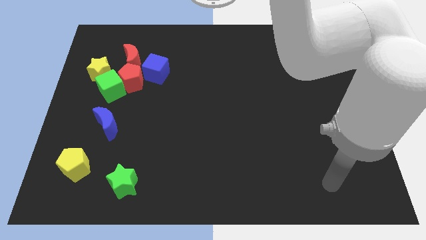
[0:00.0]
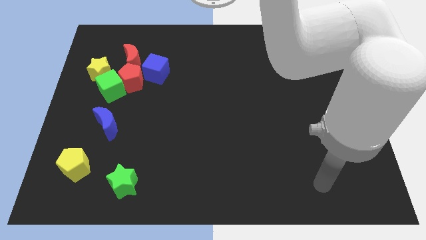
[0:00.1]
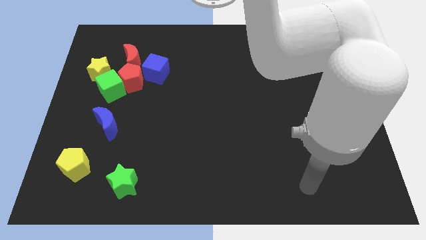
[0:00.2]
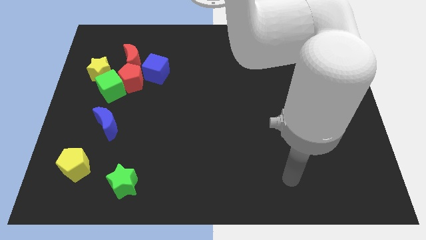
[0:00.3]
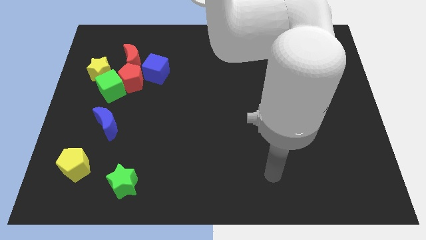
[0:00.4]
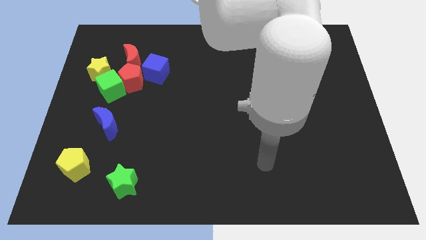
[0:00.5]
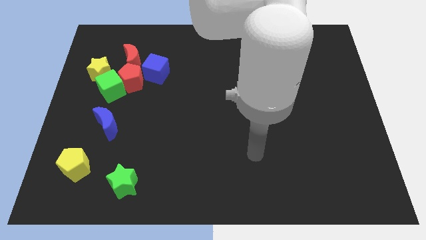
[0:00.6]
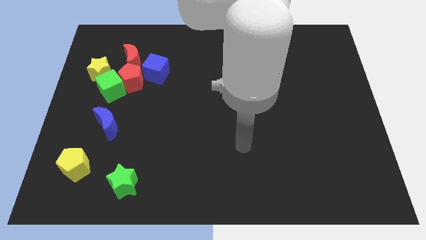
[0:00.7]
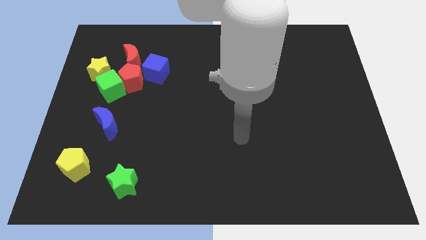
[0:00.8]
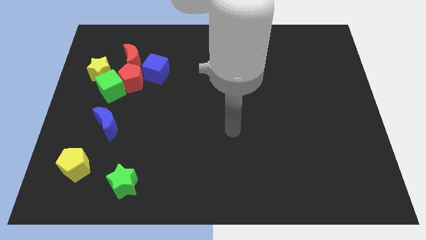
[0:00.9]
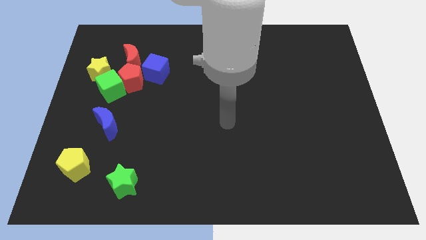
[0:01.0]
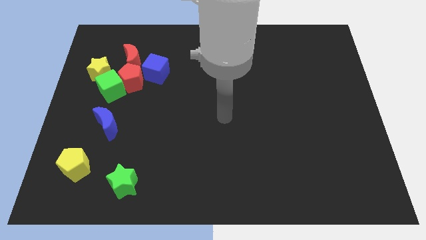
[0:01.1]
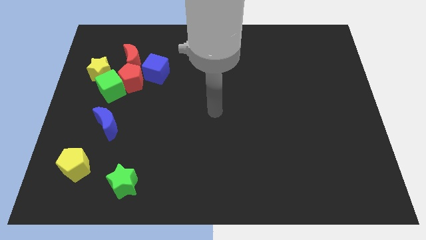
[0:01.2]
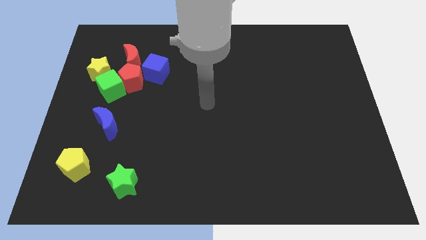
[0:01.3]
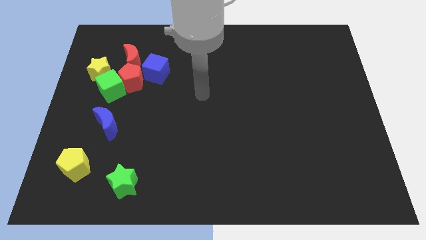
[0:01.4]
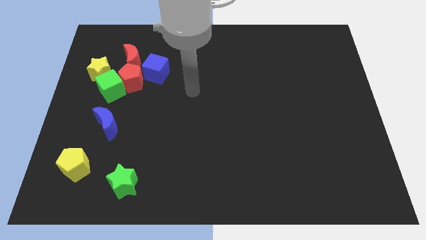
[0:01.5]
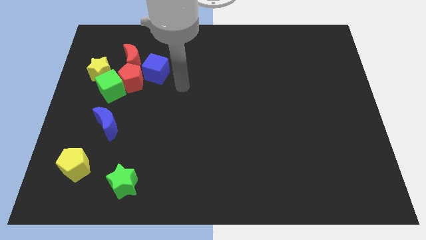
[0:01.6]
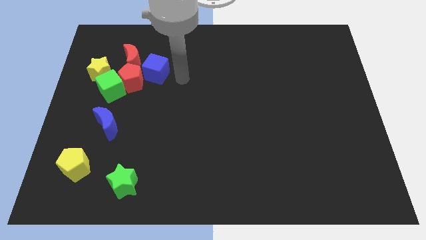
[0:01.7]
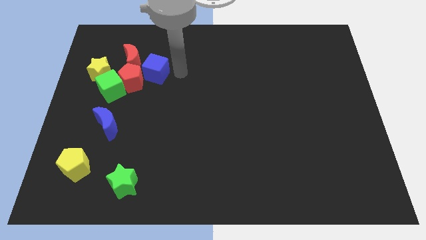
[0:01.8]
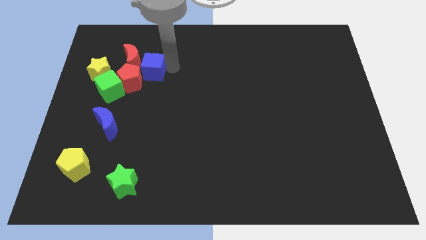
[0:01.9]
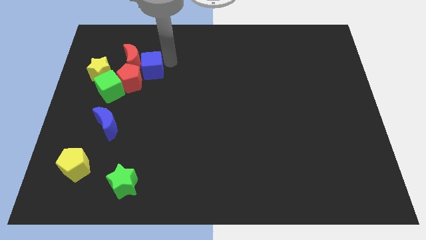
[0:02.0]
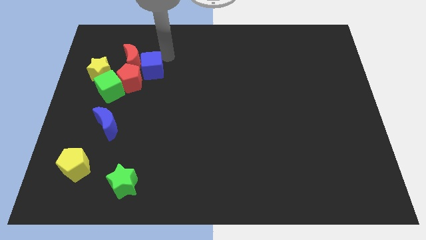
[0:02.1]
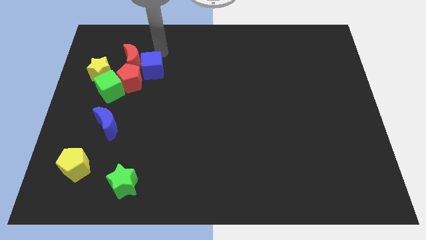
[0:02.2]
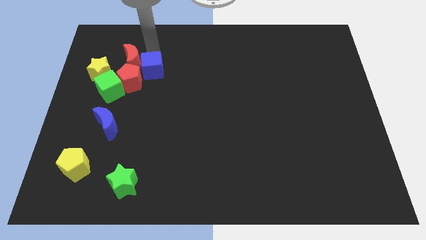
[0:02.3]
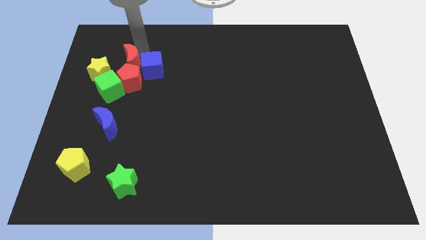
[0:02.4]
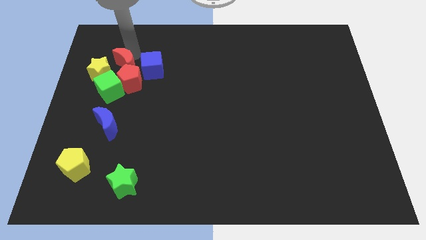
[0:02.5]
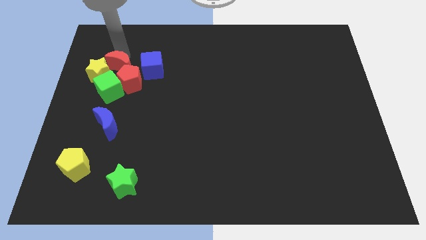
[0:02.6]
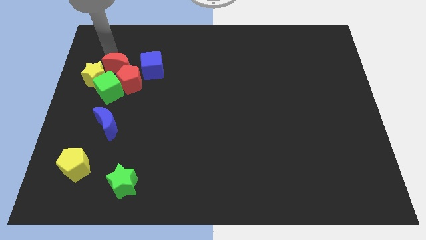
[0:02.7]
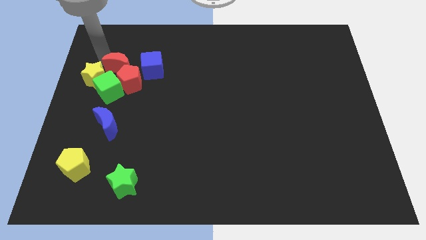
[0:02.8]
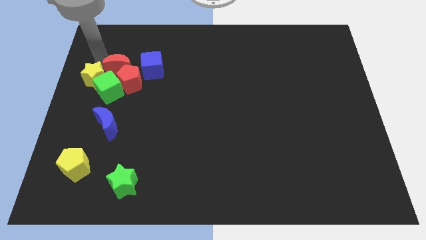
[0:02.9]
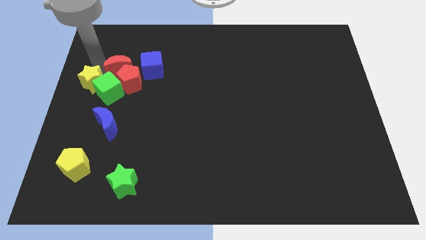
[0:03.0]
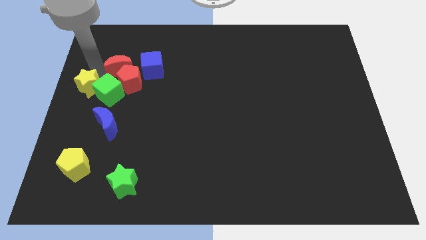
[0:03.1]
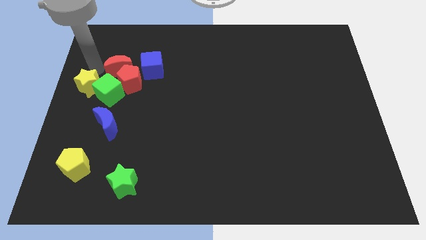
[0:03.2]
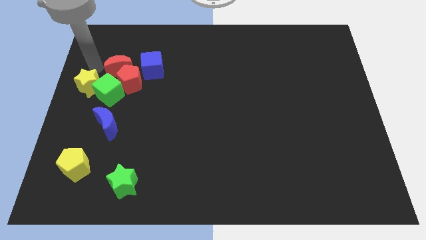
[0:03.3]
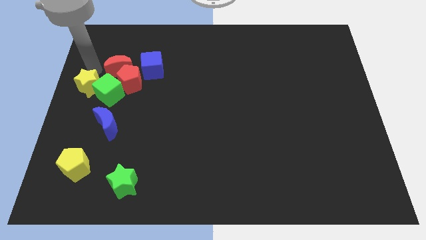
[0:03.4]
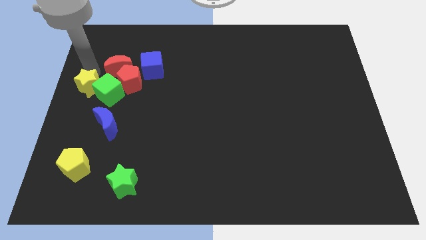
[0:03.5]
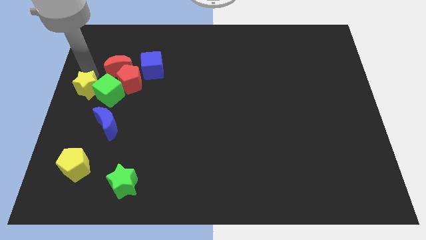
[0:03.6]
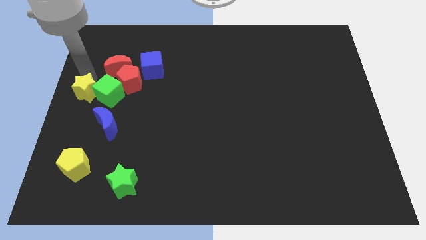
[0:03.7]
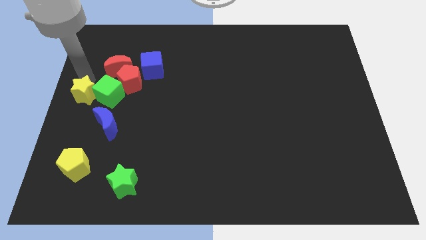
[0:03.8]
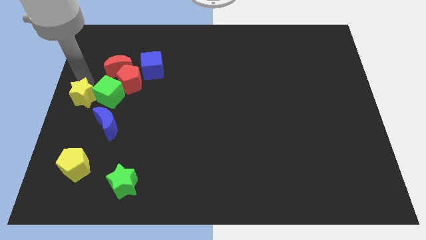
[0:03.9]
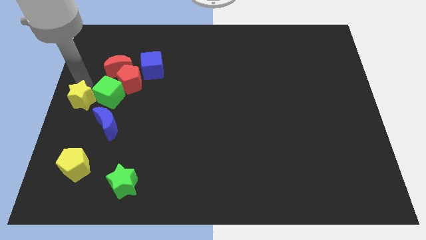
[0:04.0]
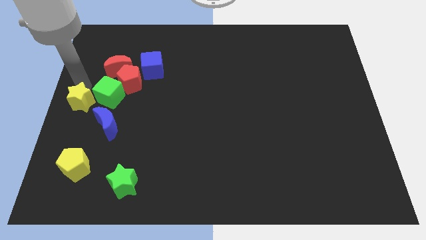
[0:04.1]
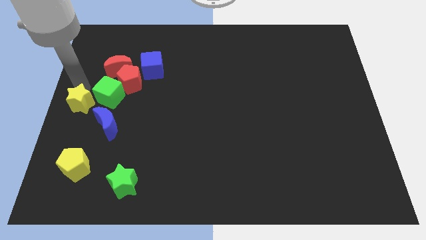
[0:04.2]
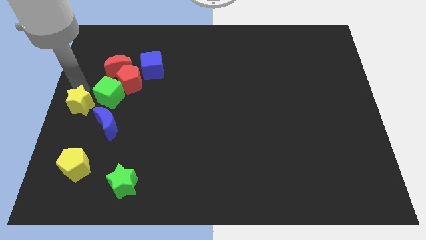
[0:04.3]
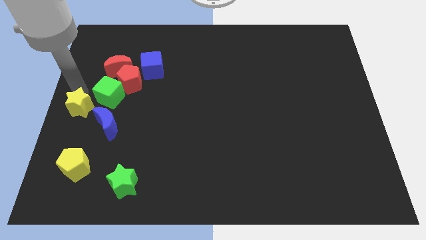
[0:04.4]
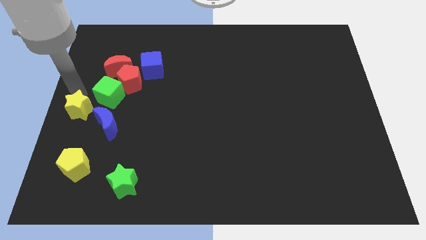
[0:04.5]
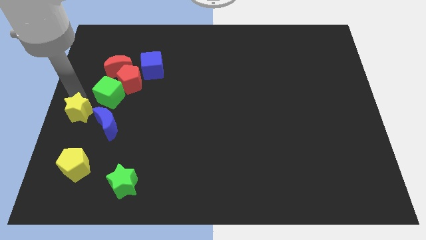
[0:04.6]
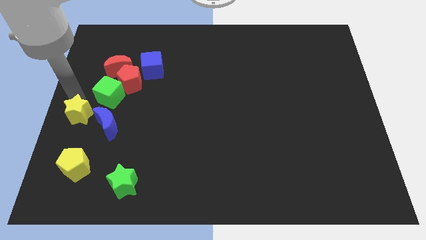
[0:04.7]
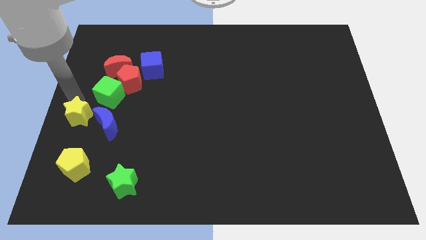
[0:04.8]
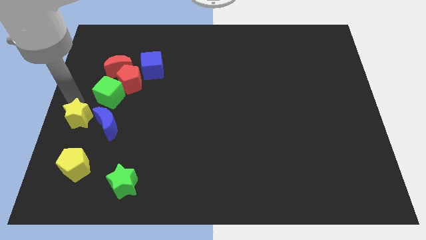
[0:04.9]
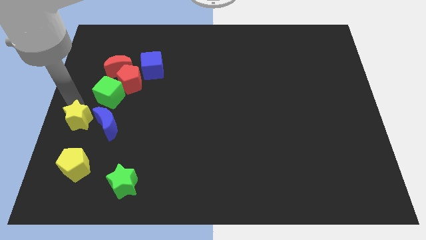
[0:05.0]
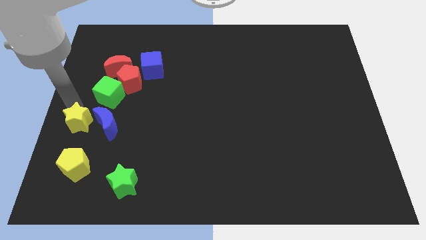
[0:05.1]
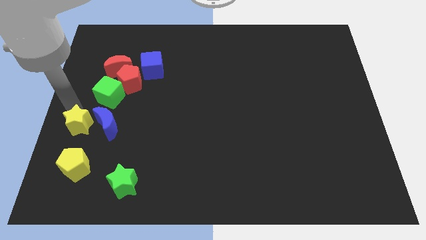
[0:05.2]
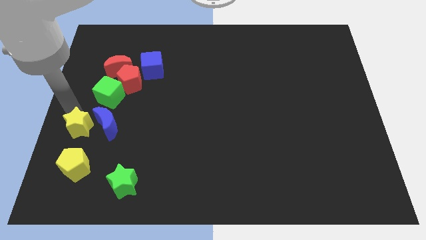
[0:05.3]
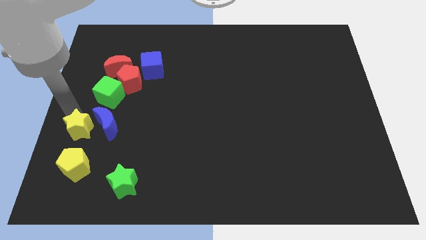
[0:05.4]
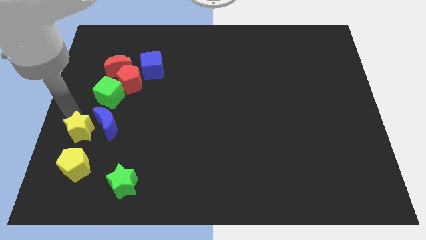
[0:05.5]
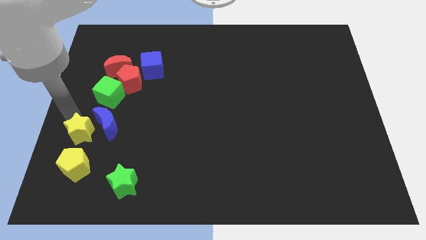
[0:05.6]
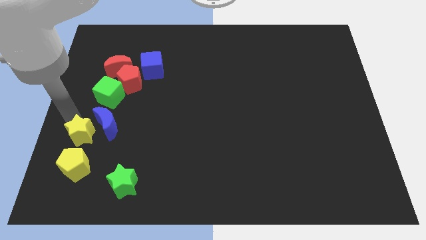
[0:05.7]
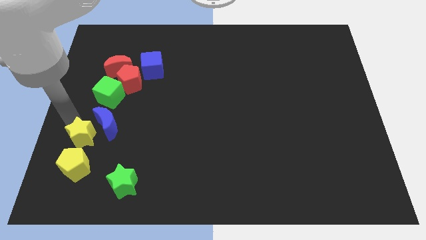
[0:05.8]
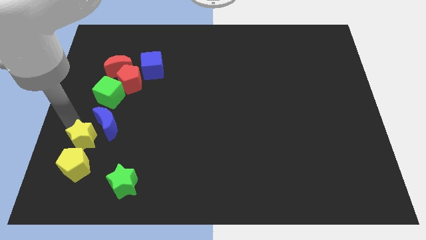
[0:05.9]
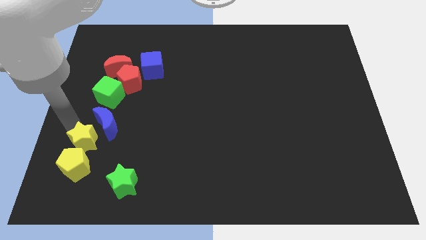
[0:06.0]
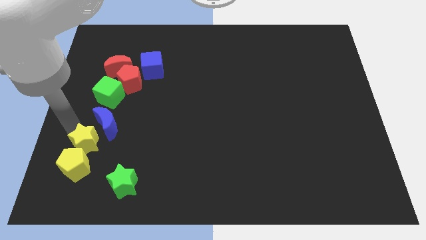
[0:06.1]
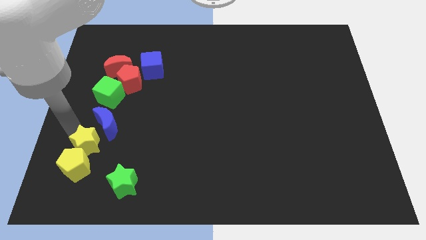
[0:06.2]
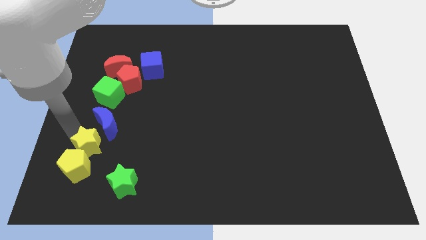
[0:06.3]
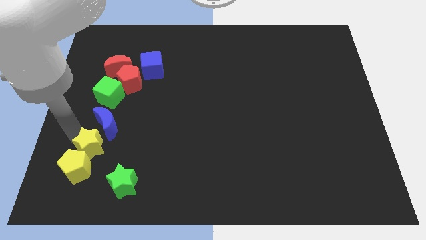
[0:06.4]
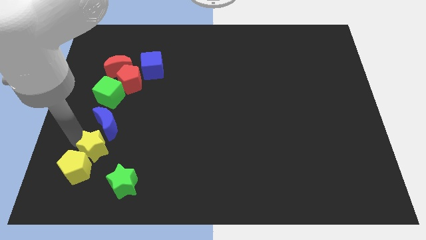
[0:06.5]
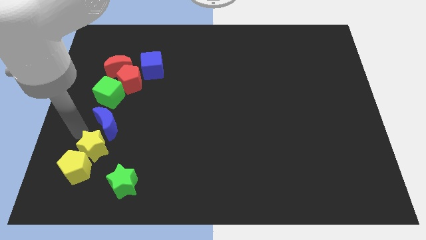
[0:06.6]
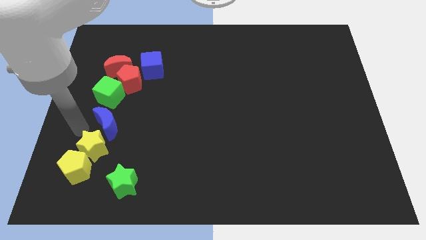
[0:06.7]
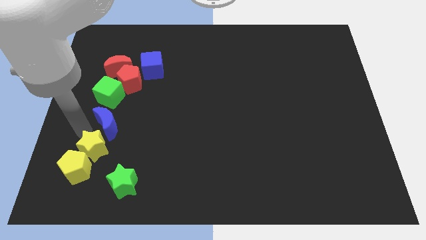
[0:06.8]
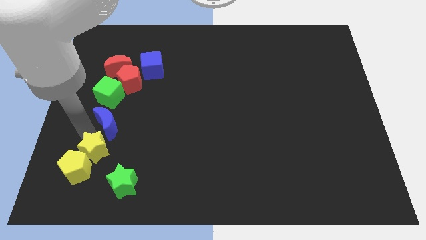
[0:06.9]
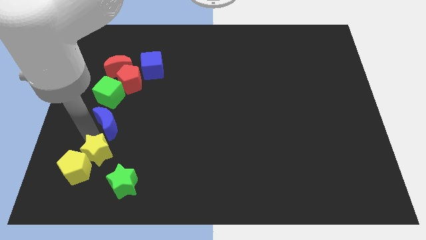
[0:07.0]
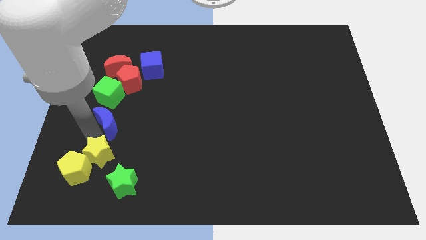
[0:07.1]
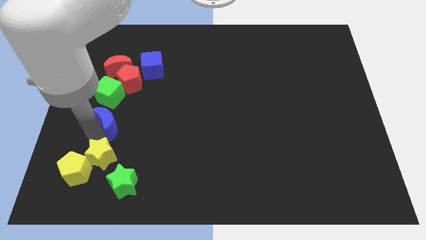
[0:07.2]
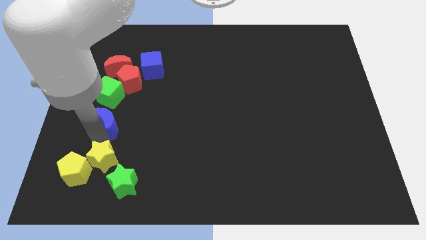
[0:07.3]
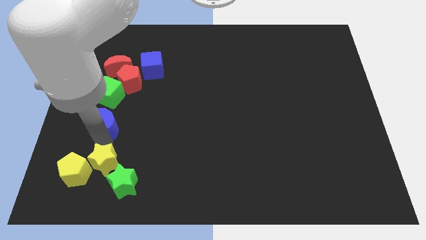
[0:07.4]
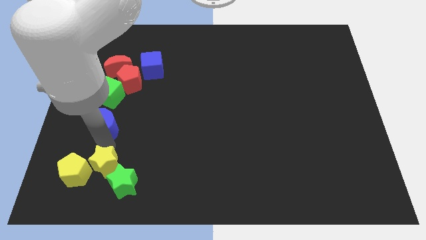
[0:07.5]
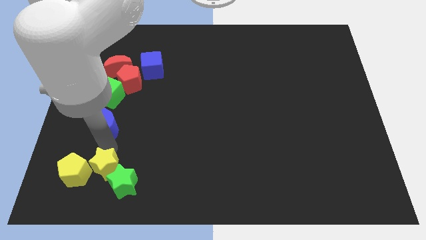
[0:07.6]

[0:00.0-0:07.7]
slide the yellow star to the green star
